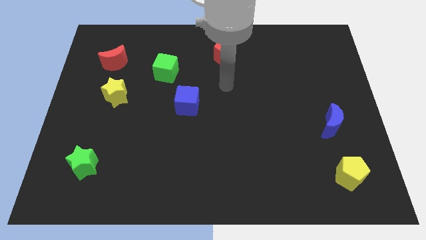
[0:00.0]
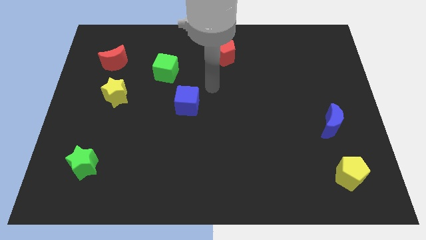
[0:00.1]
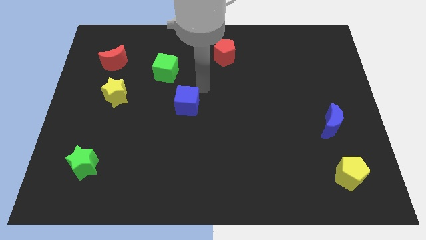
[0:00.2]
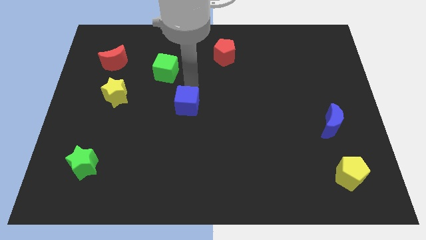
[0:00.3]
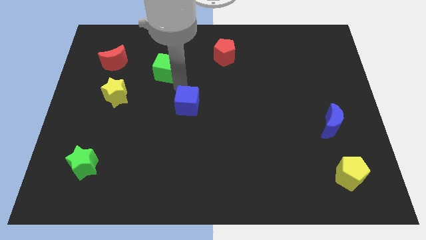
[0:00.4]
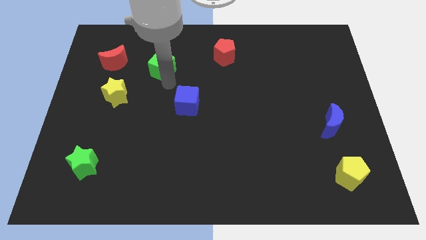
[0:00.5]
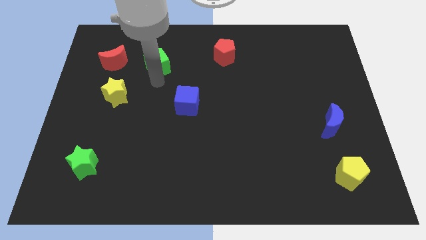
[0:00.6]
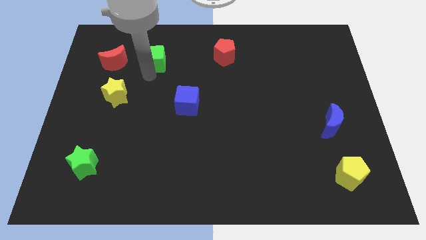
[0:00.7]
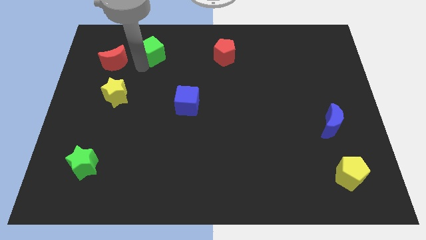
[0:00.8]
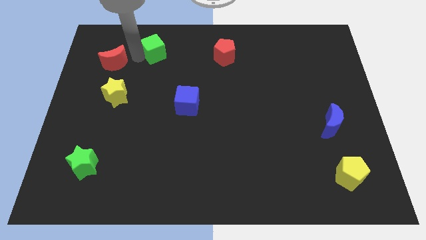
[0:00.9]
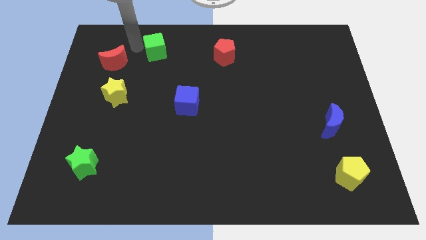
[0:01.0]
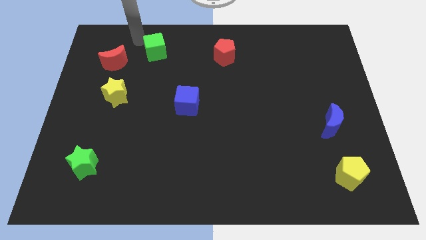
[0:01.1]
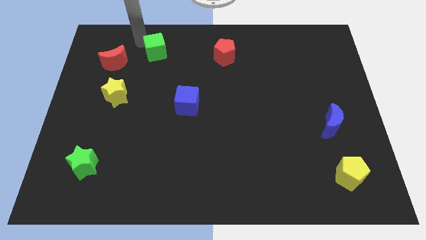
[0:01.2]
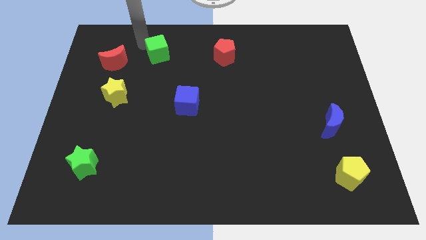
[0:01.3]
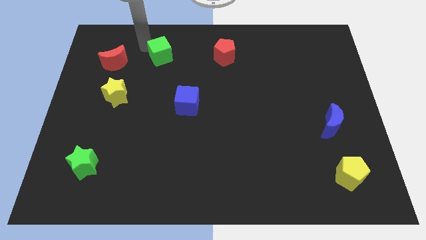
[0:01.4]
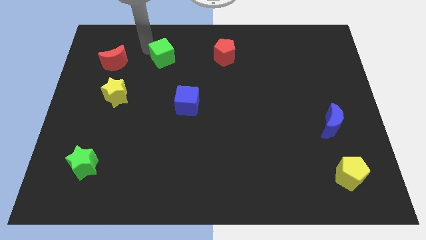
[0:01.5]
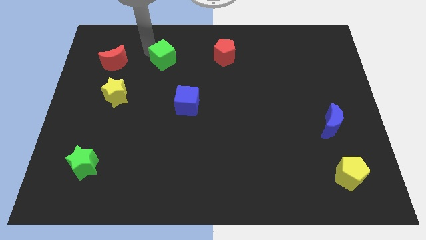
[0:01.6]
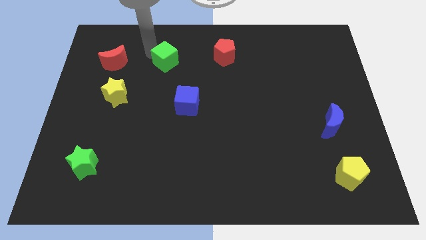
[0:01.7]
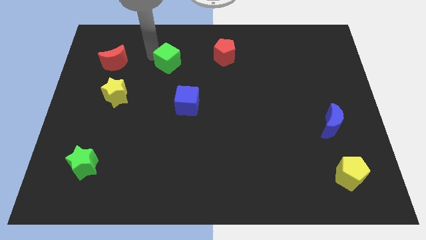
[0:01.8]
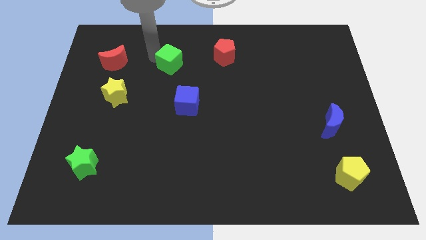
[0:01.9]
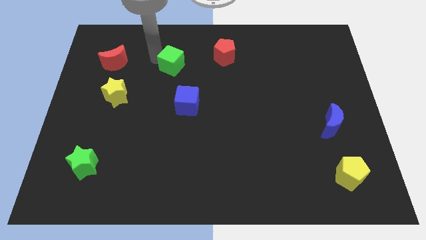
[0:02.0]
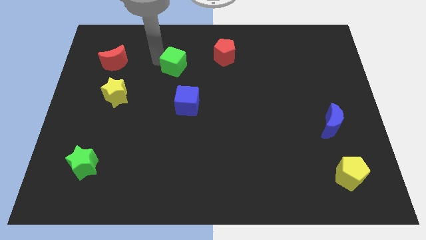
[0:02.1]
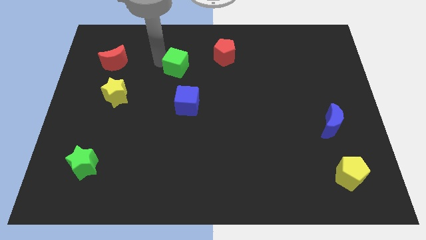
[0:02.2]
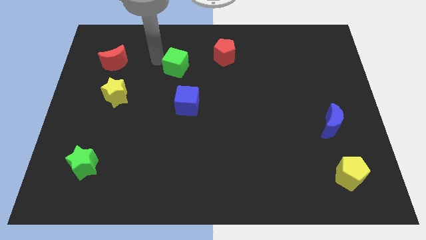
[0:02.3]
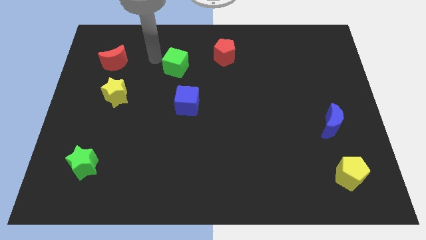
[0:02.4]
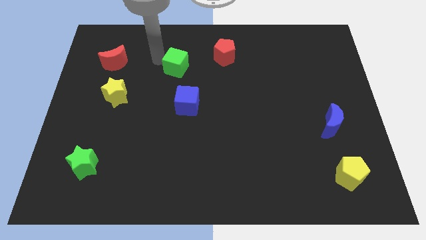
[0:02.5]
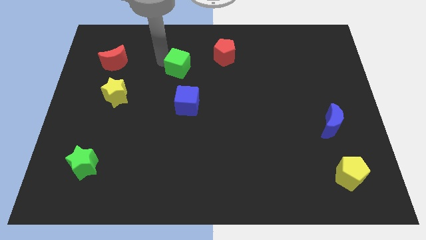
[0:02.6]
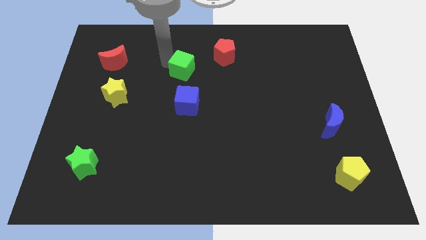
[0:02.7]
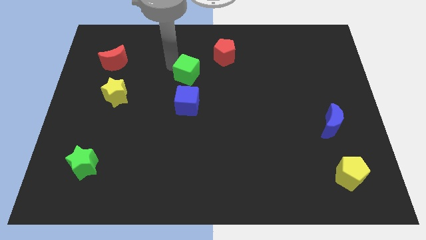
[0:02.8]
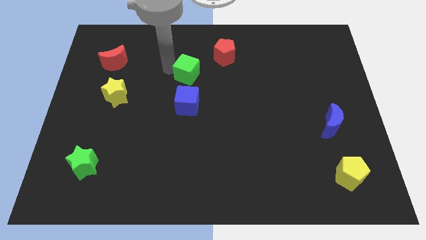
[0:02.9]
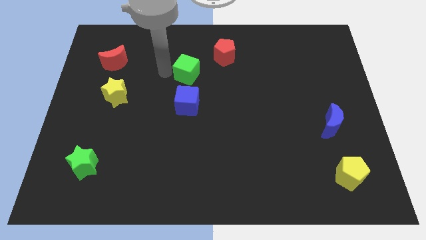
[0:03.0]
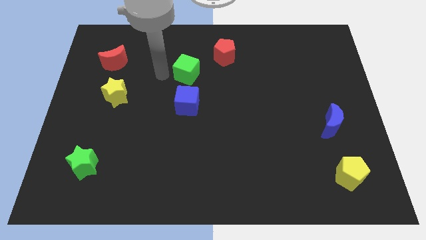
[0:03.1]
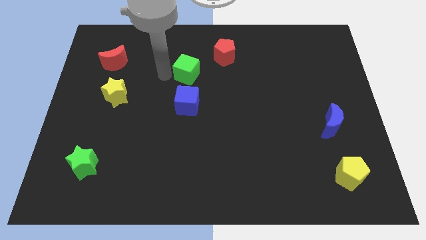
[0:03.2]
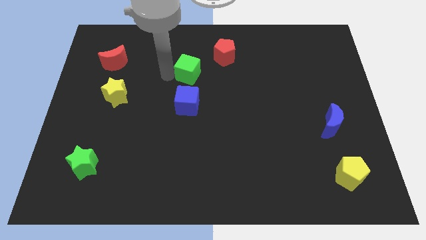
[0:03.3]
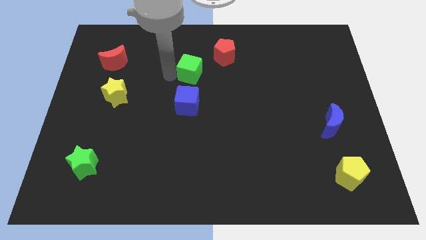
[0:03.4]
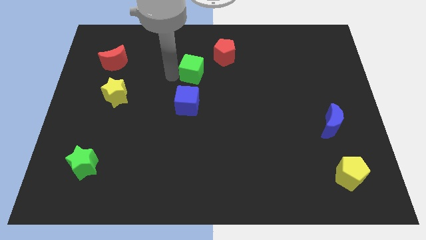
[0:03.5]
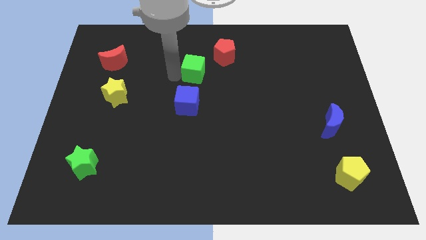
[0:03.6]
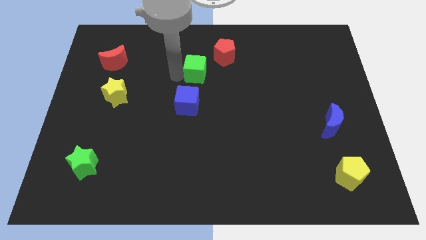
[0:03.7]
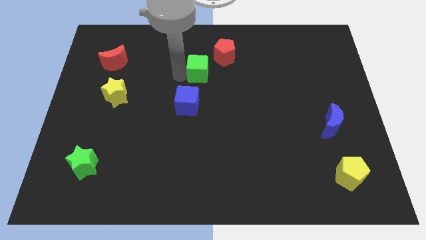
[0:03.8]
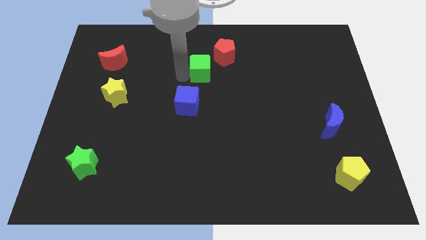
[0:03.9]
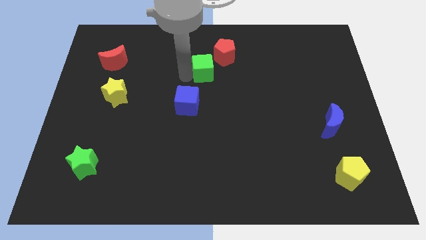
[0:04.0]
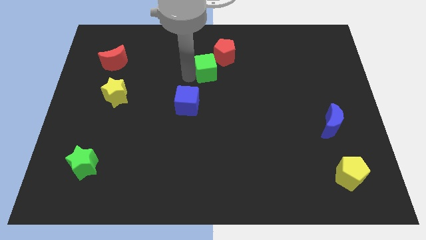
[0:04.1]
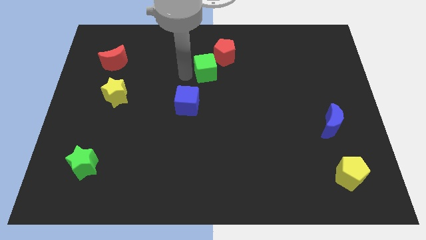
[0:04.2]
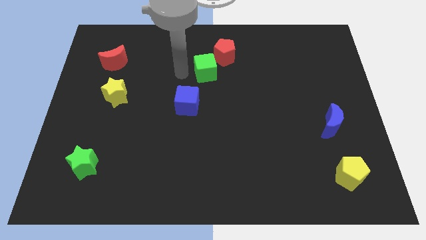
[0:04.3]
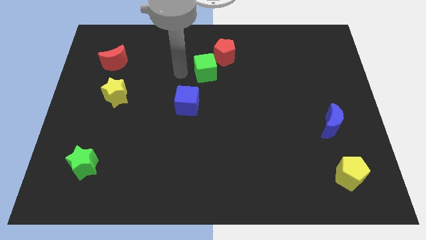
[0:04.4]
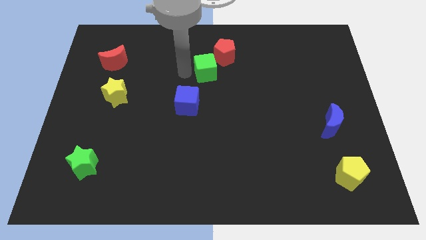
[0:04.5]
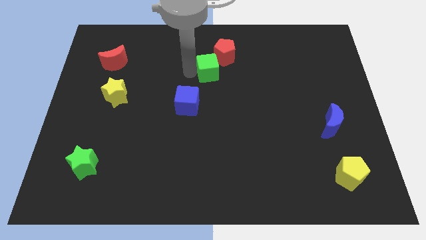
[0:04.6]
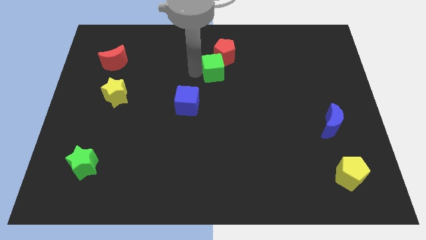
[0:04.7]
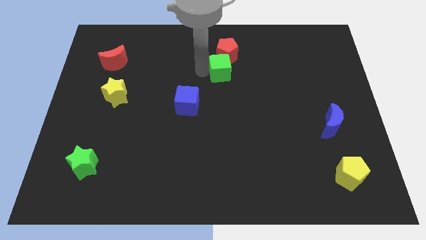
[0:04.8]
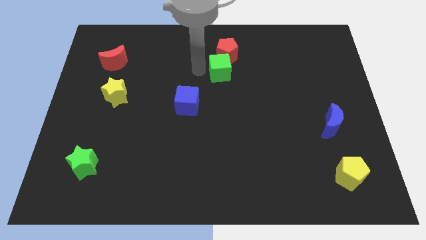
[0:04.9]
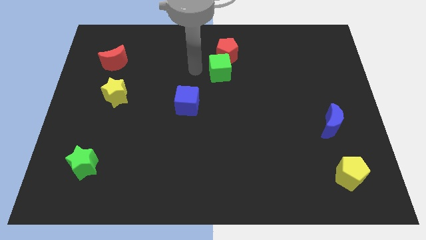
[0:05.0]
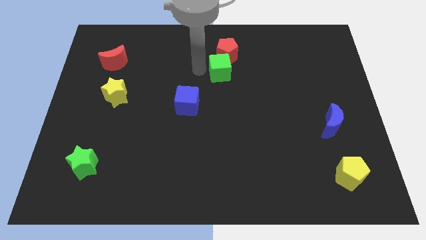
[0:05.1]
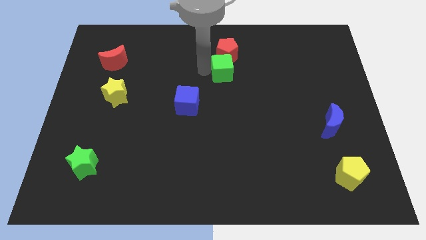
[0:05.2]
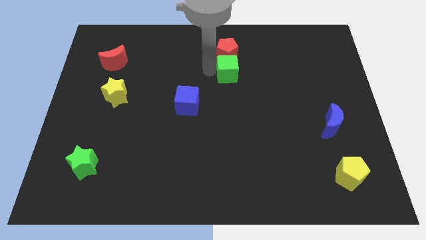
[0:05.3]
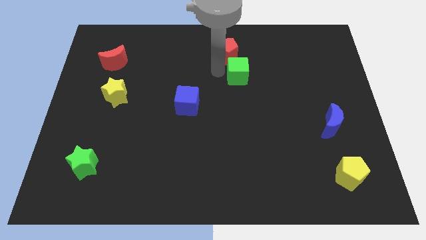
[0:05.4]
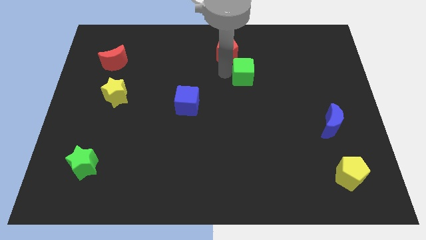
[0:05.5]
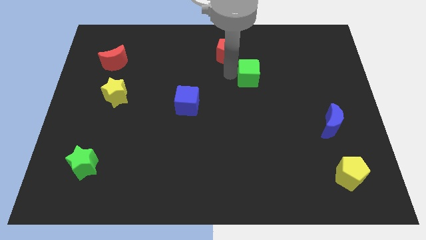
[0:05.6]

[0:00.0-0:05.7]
move the green cube to the right

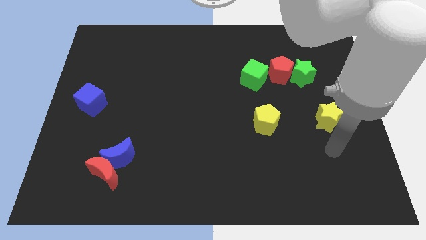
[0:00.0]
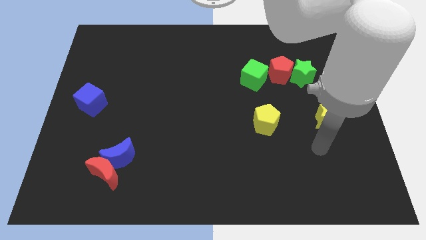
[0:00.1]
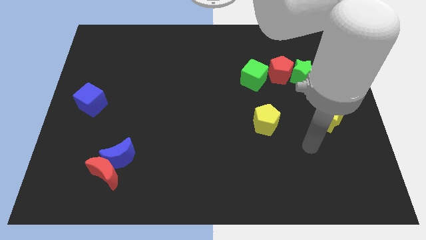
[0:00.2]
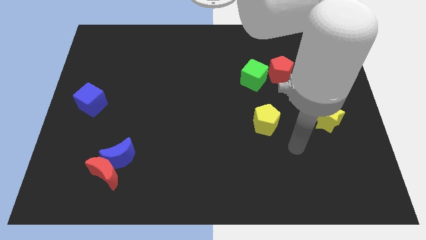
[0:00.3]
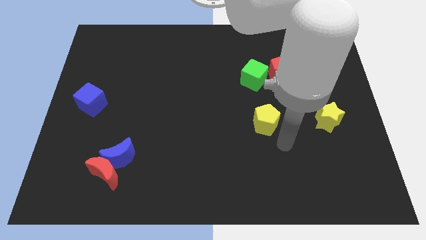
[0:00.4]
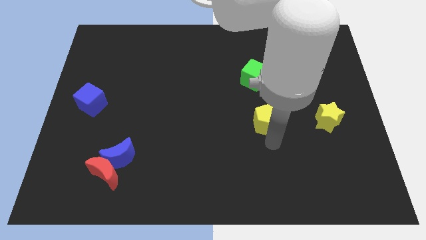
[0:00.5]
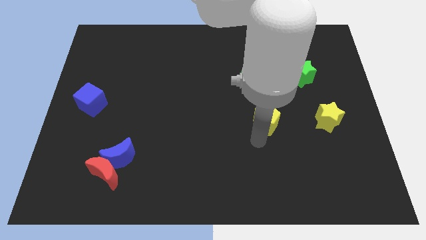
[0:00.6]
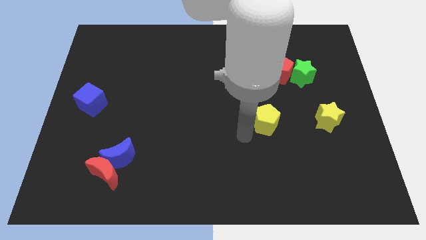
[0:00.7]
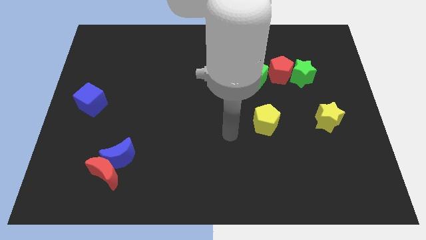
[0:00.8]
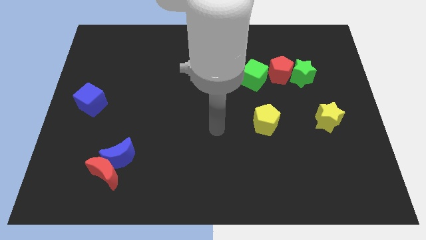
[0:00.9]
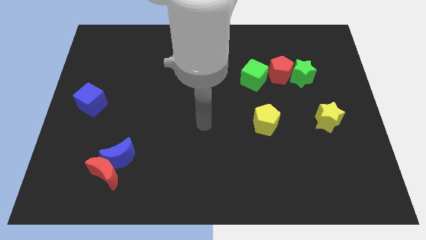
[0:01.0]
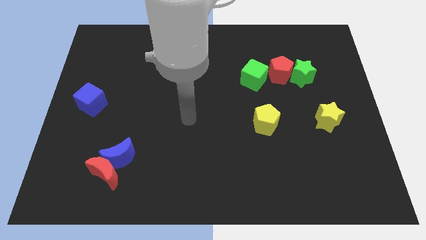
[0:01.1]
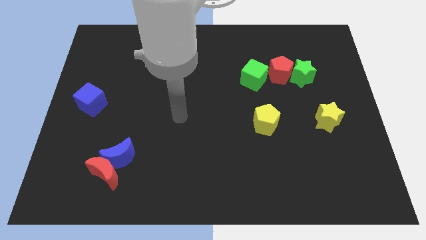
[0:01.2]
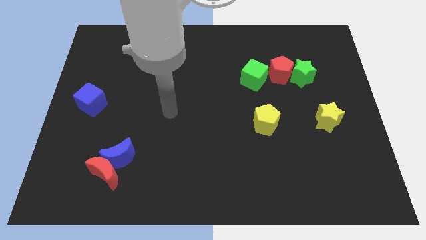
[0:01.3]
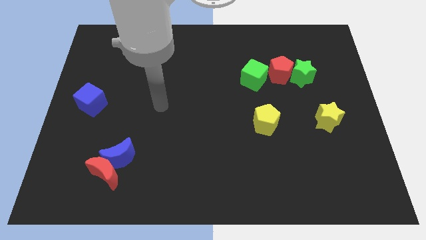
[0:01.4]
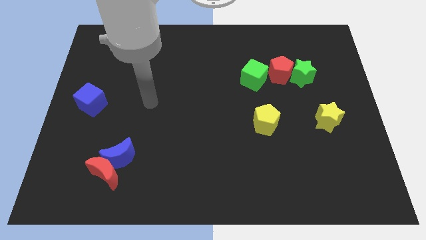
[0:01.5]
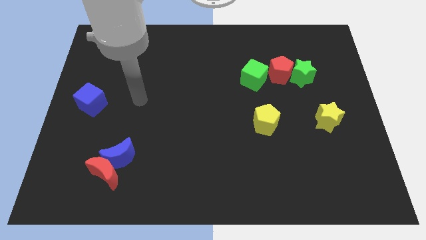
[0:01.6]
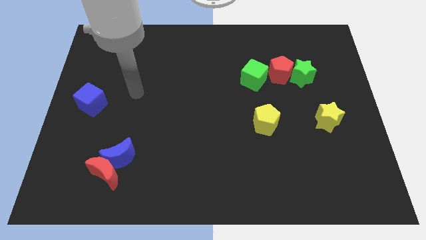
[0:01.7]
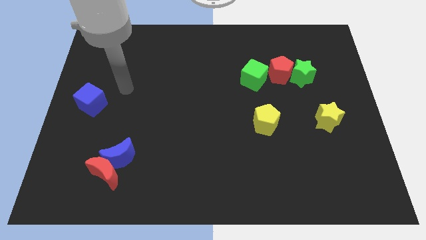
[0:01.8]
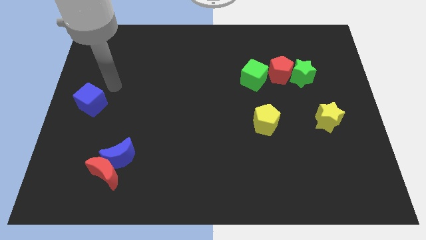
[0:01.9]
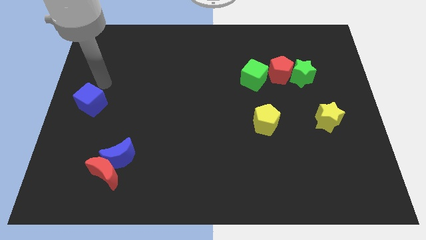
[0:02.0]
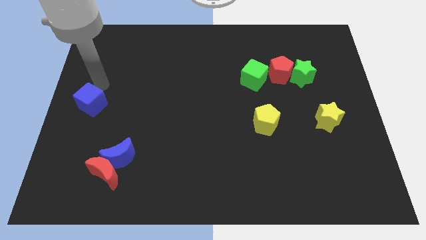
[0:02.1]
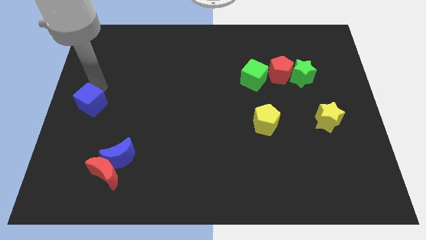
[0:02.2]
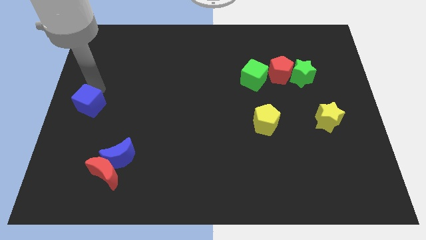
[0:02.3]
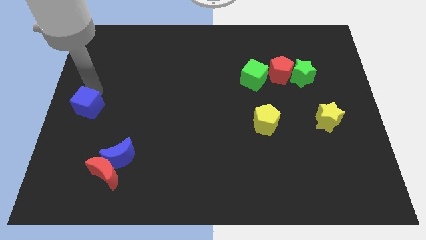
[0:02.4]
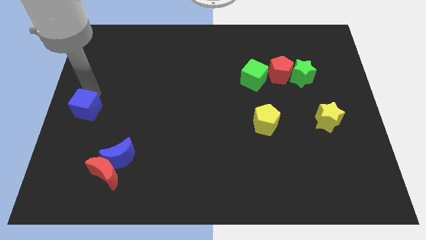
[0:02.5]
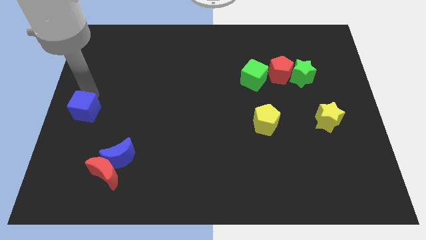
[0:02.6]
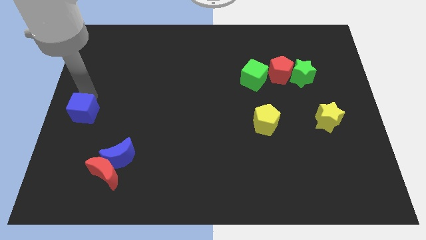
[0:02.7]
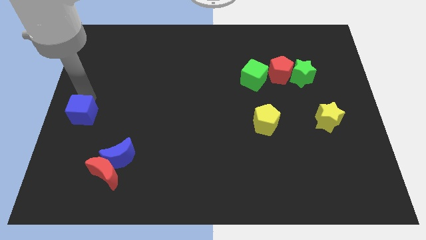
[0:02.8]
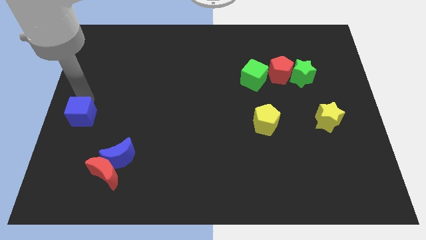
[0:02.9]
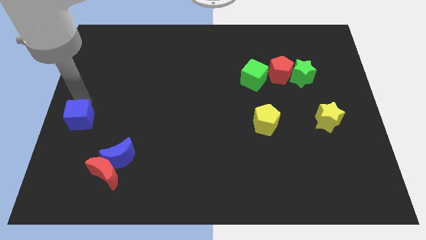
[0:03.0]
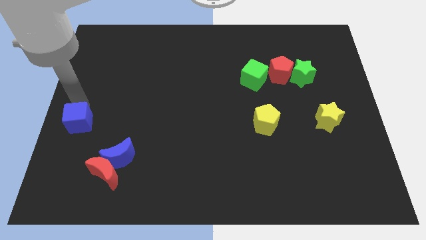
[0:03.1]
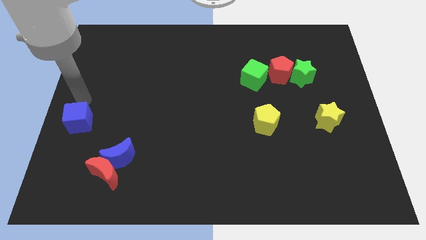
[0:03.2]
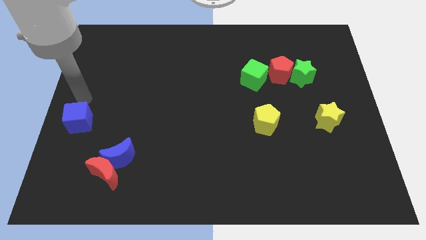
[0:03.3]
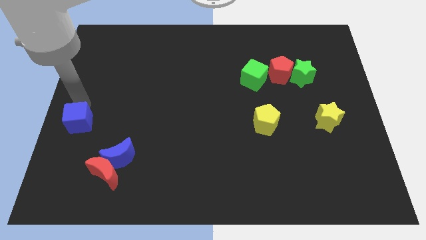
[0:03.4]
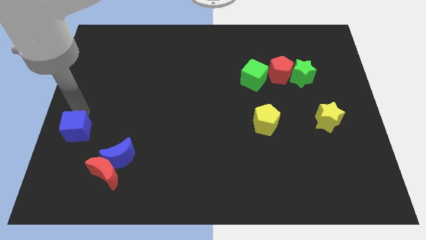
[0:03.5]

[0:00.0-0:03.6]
slightly push the blue cube down
